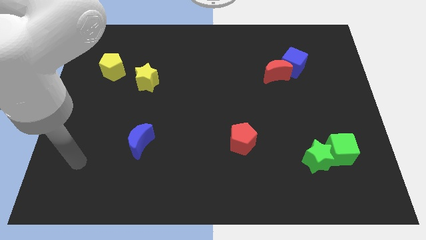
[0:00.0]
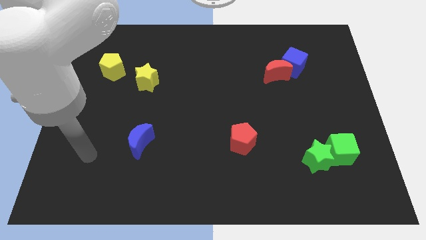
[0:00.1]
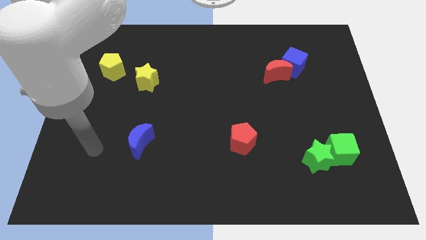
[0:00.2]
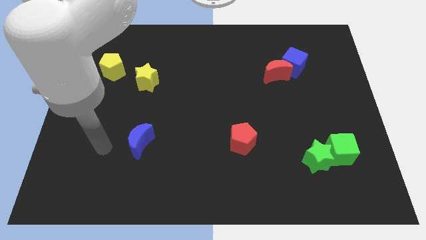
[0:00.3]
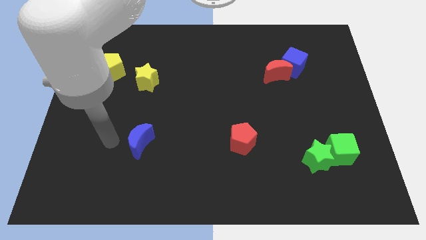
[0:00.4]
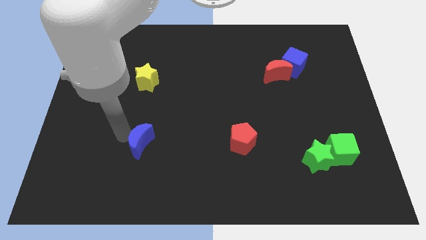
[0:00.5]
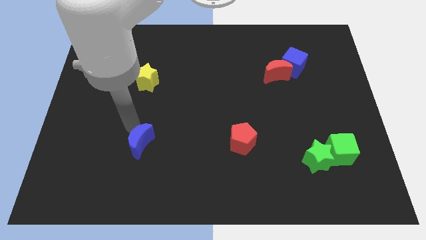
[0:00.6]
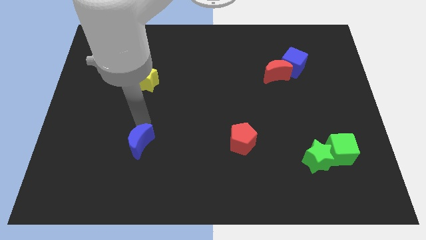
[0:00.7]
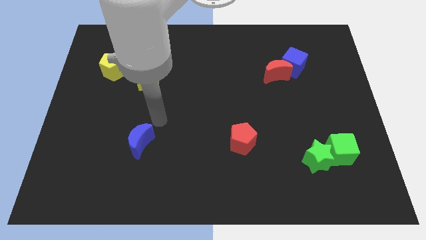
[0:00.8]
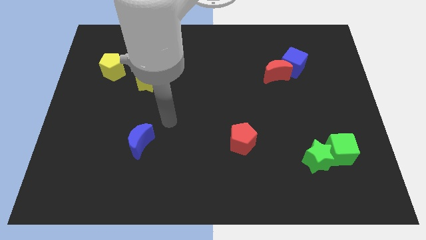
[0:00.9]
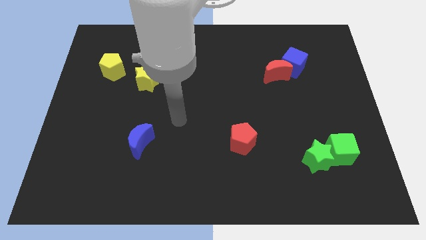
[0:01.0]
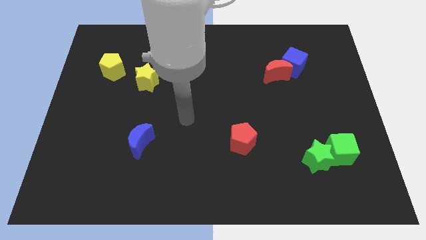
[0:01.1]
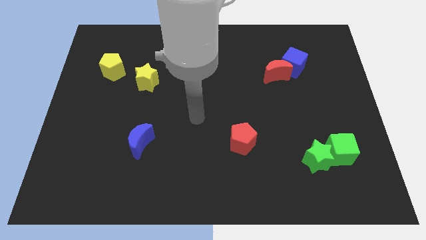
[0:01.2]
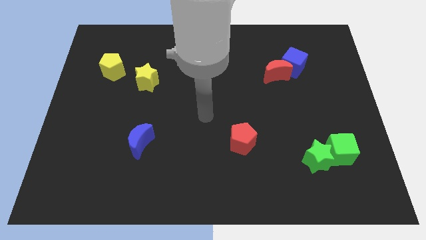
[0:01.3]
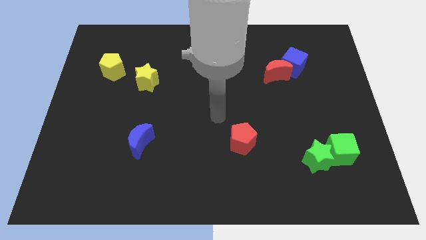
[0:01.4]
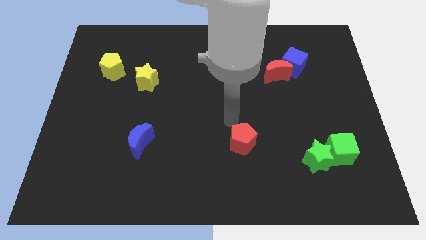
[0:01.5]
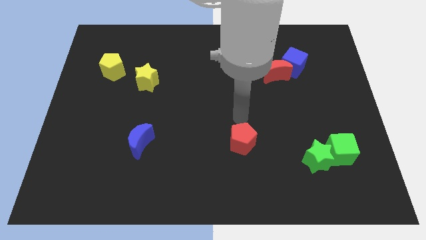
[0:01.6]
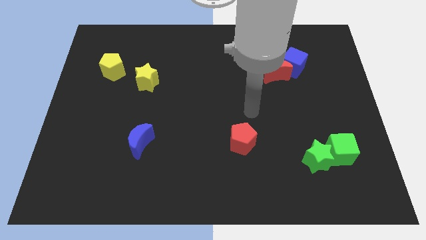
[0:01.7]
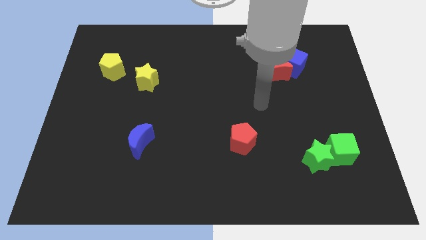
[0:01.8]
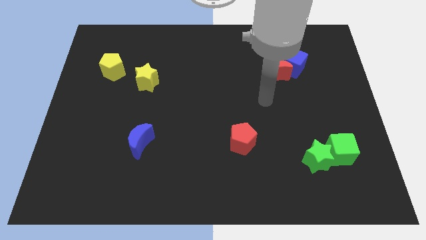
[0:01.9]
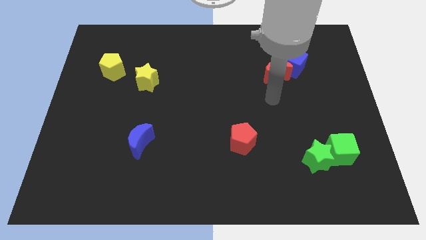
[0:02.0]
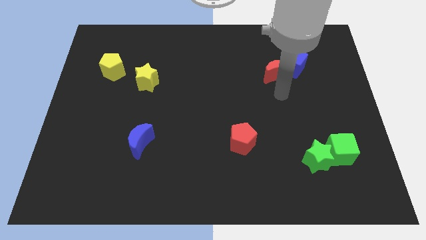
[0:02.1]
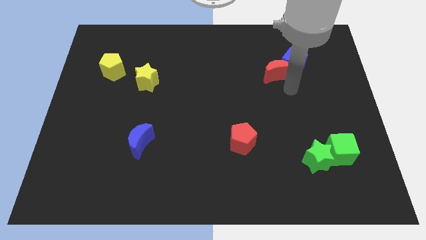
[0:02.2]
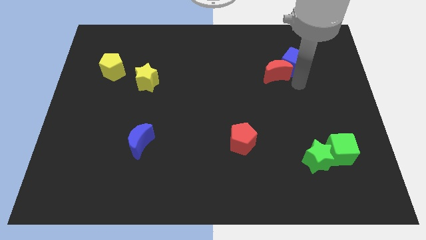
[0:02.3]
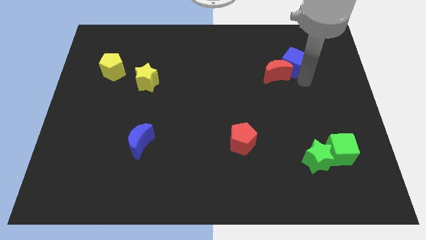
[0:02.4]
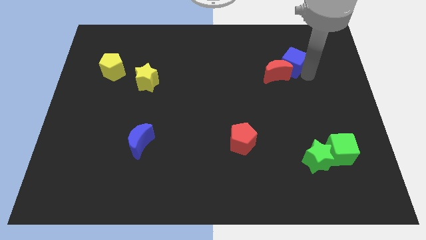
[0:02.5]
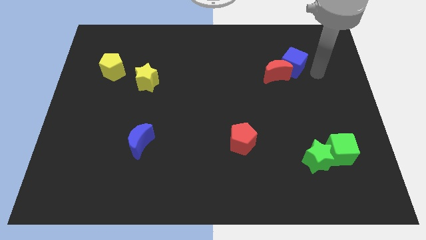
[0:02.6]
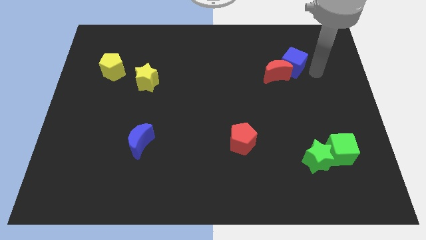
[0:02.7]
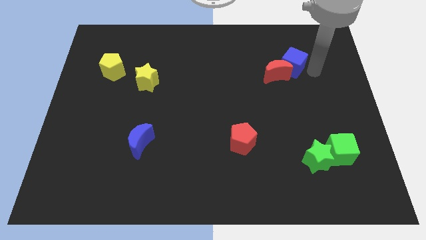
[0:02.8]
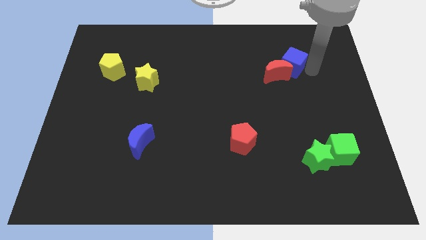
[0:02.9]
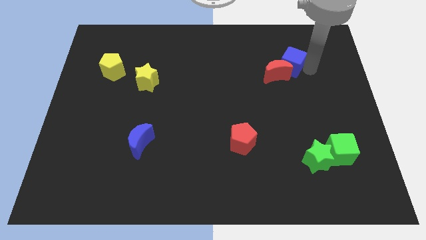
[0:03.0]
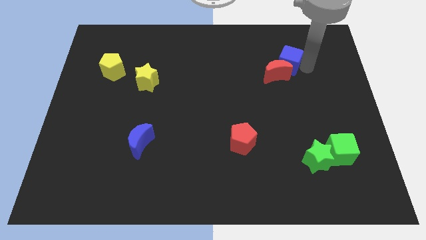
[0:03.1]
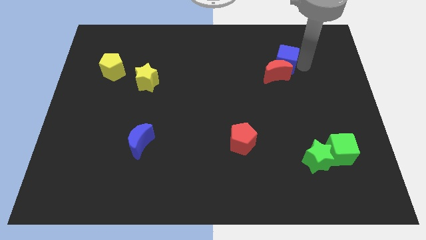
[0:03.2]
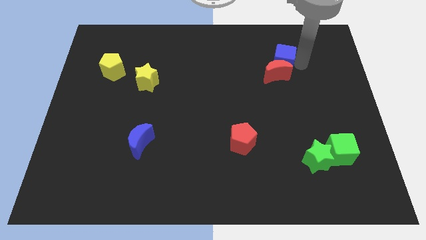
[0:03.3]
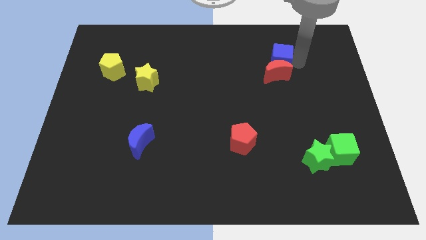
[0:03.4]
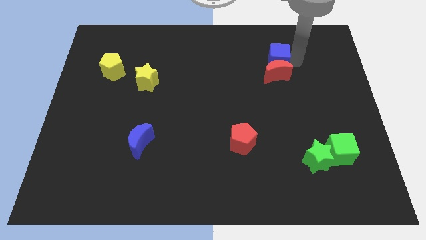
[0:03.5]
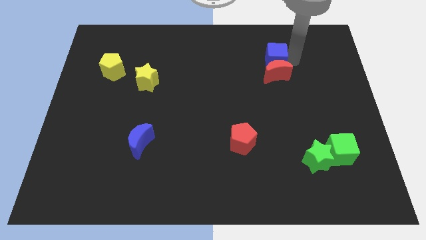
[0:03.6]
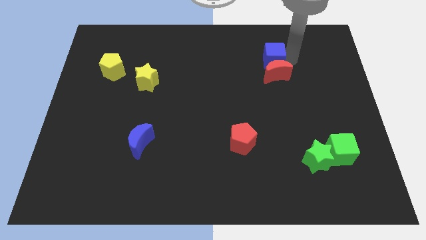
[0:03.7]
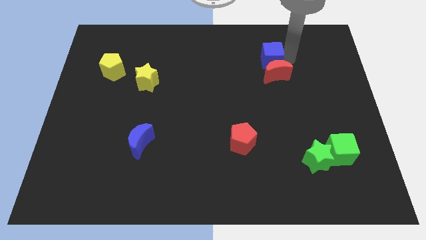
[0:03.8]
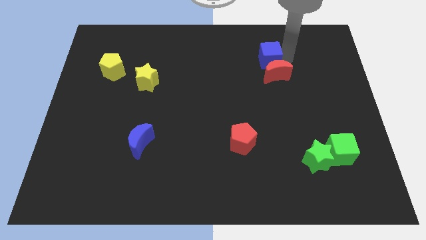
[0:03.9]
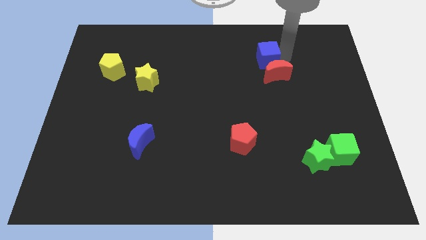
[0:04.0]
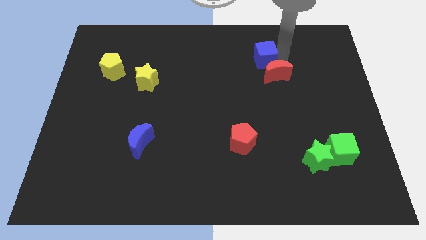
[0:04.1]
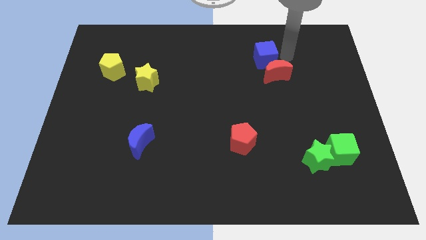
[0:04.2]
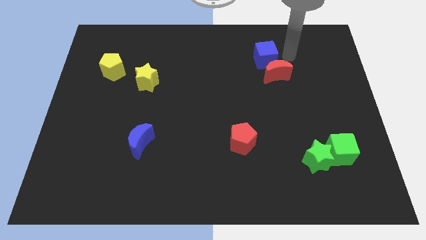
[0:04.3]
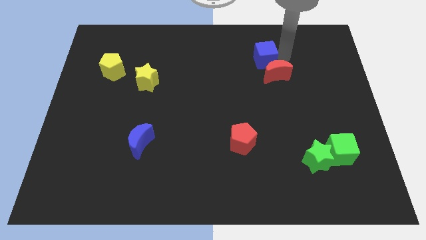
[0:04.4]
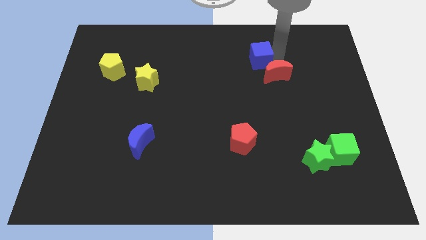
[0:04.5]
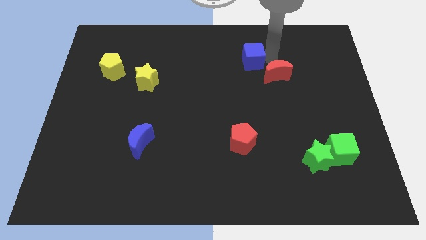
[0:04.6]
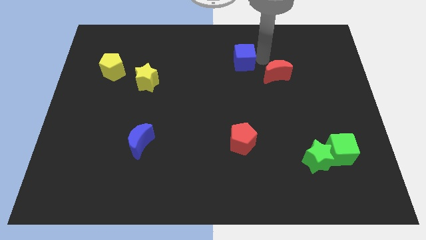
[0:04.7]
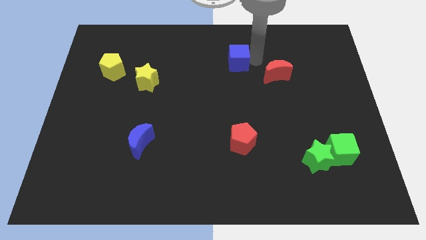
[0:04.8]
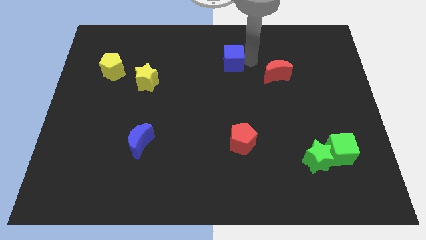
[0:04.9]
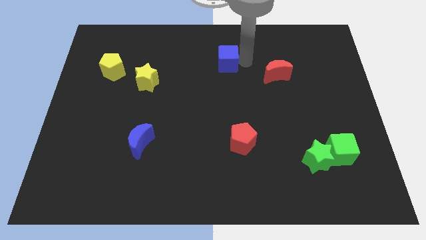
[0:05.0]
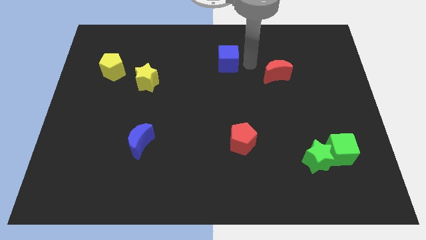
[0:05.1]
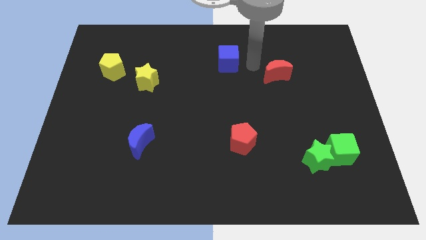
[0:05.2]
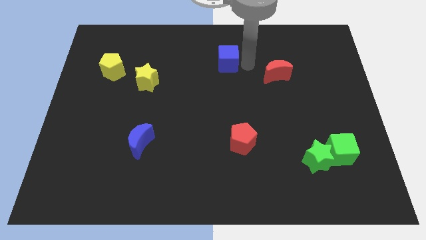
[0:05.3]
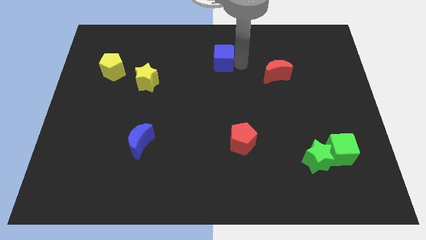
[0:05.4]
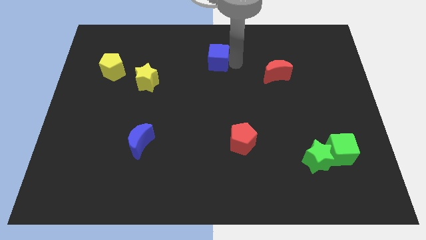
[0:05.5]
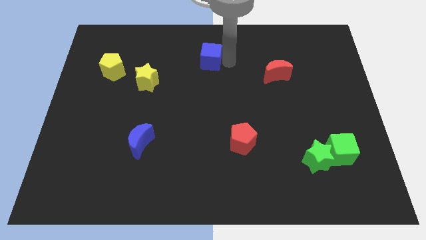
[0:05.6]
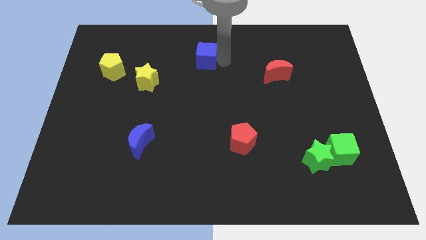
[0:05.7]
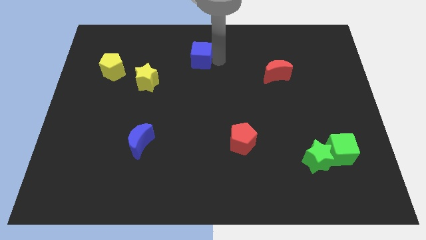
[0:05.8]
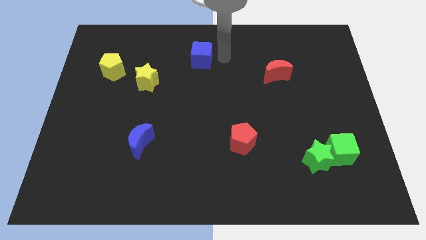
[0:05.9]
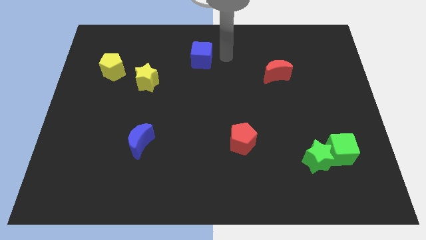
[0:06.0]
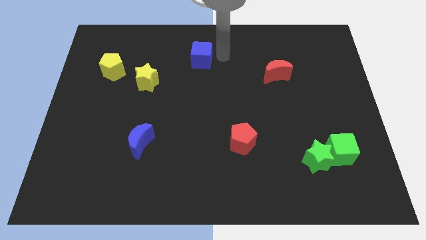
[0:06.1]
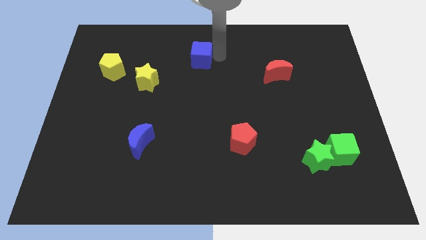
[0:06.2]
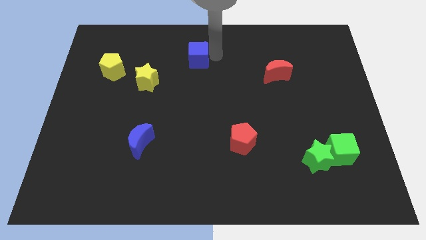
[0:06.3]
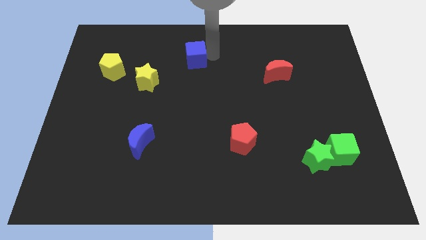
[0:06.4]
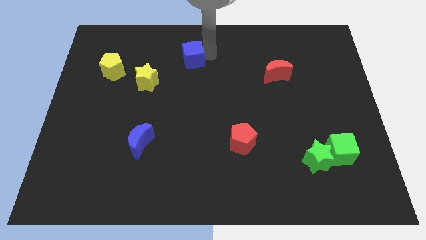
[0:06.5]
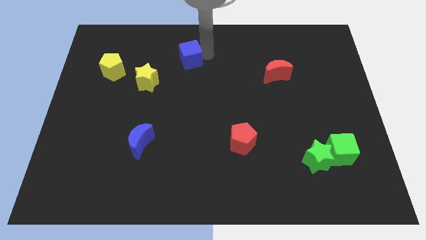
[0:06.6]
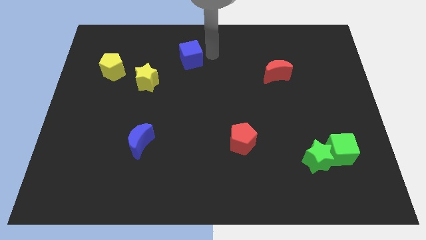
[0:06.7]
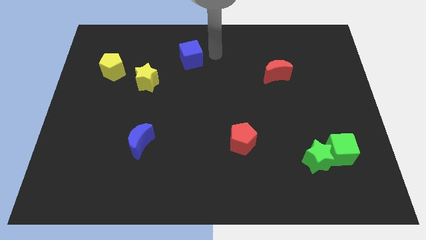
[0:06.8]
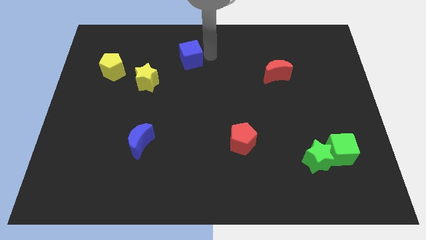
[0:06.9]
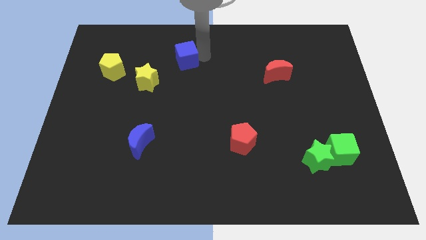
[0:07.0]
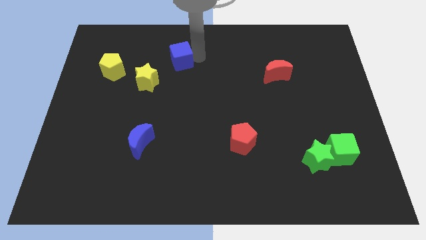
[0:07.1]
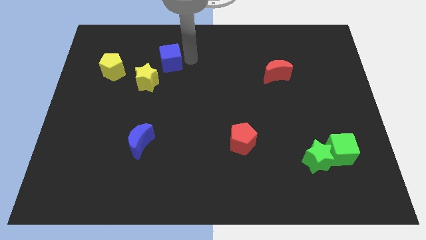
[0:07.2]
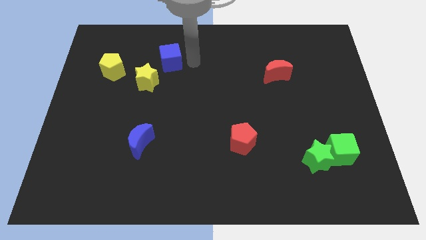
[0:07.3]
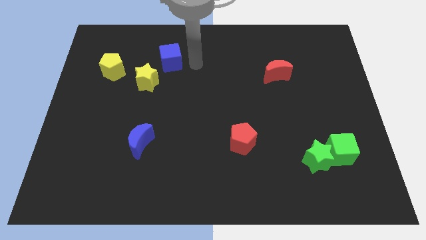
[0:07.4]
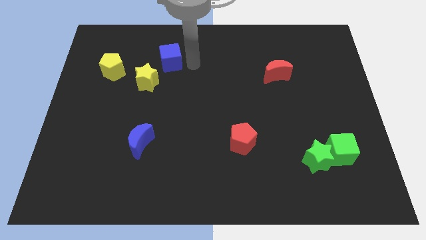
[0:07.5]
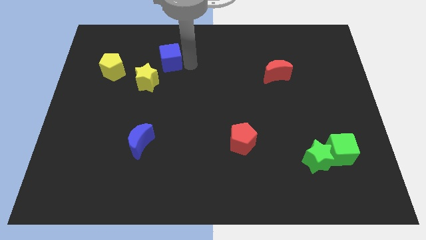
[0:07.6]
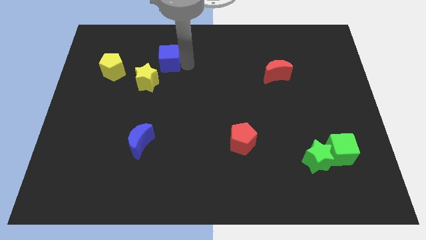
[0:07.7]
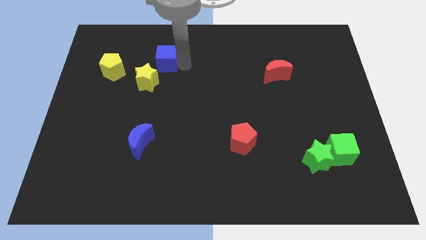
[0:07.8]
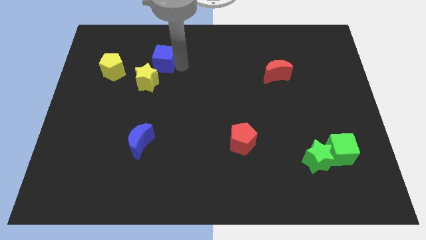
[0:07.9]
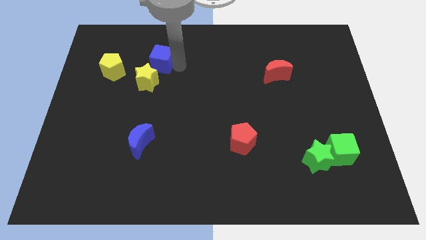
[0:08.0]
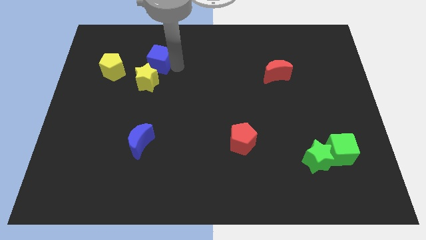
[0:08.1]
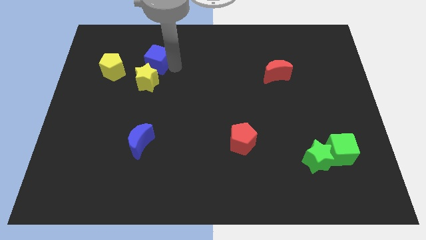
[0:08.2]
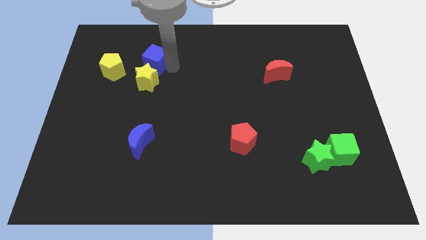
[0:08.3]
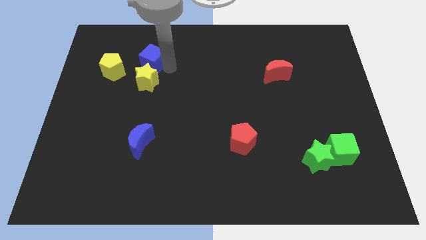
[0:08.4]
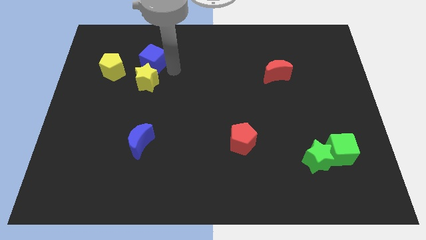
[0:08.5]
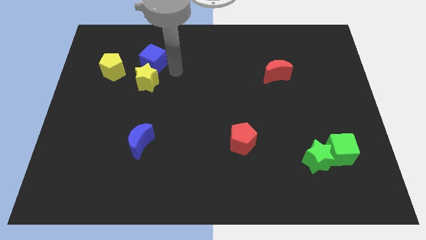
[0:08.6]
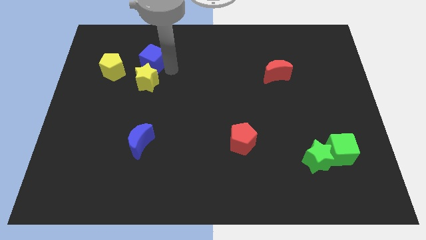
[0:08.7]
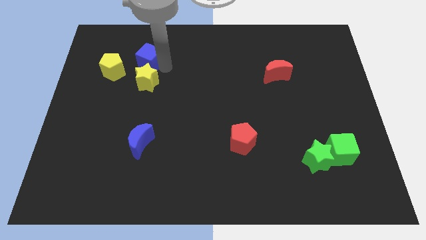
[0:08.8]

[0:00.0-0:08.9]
push the blue cube to the top right side of the yellow pentagon
